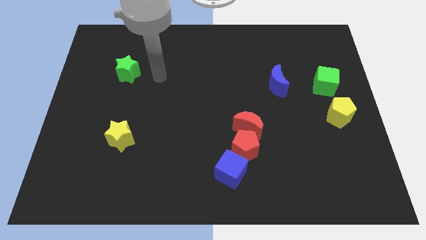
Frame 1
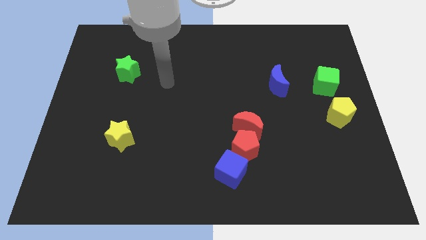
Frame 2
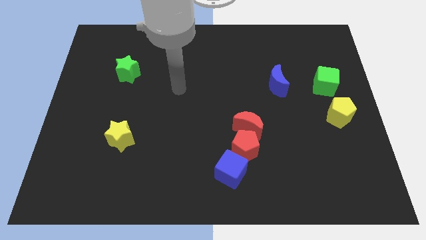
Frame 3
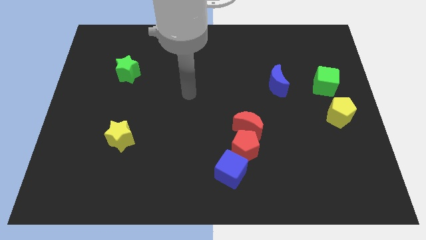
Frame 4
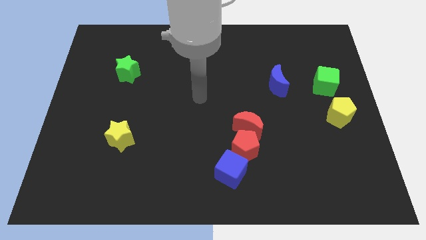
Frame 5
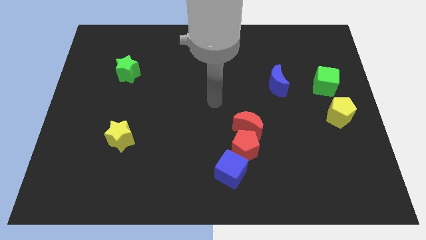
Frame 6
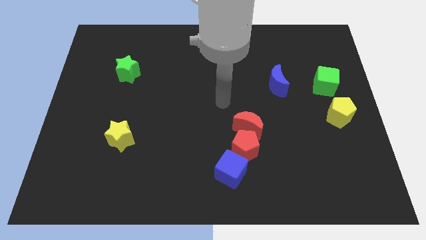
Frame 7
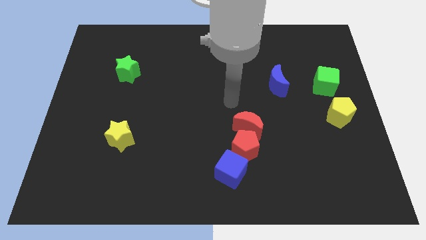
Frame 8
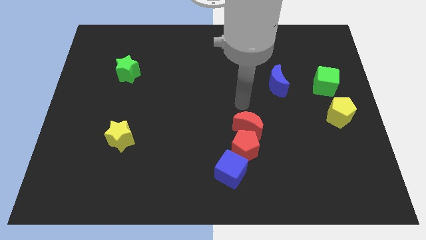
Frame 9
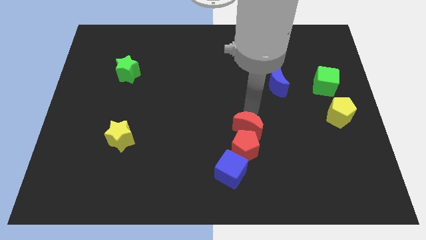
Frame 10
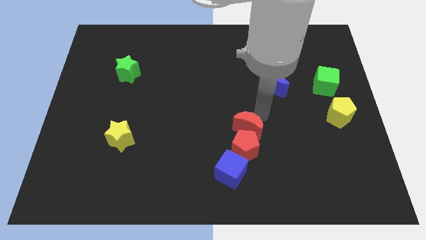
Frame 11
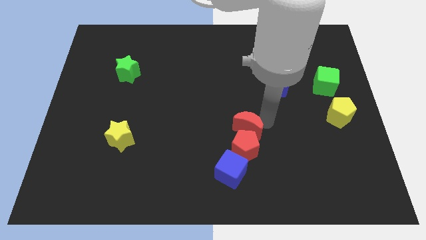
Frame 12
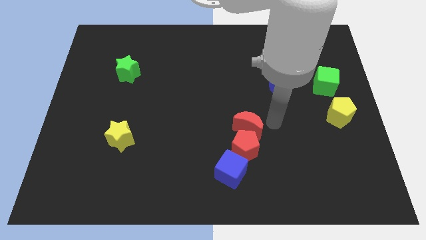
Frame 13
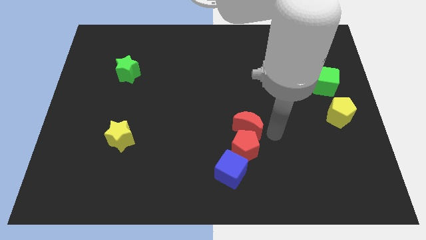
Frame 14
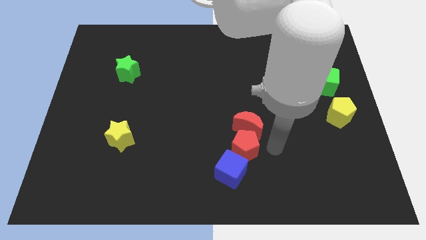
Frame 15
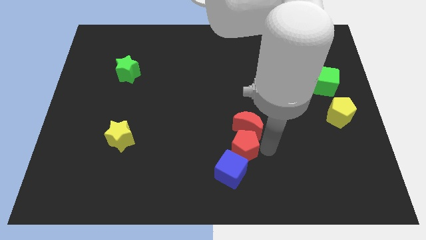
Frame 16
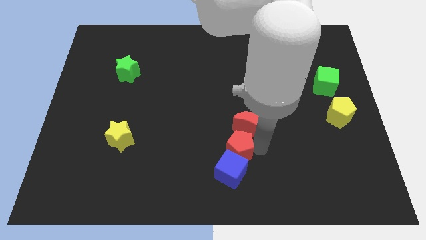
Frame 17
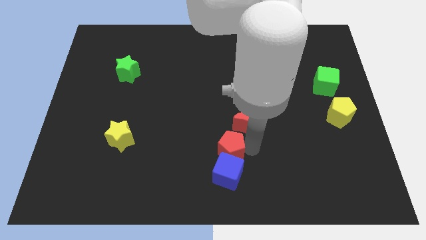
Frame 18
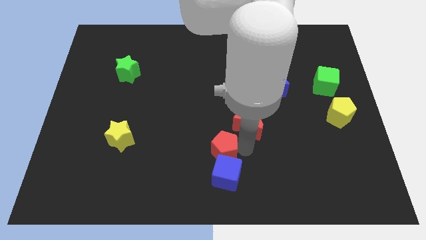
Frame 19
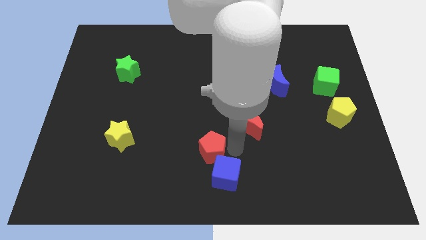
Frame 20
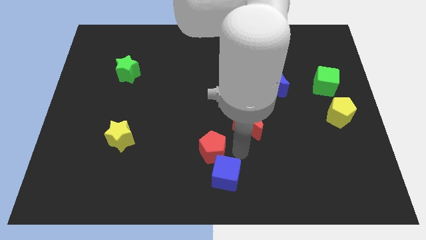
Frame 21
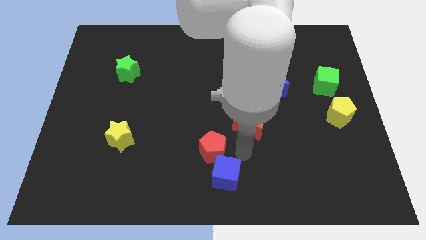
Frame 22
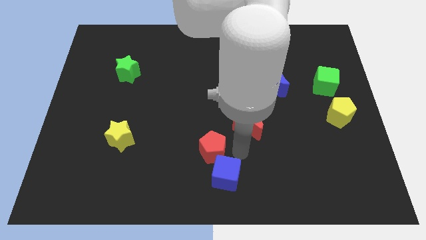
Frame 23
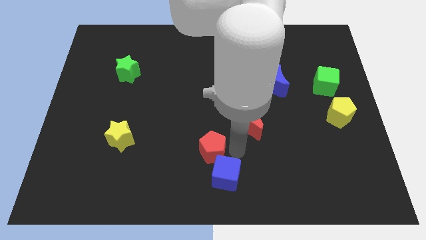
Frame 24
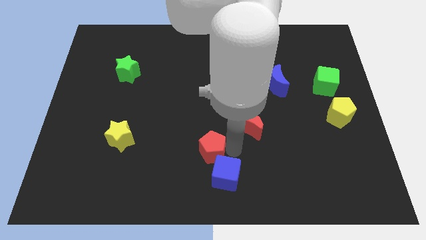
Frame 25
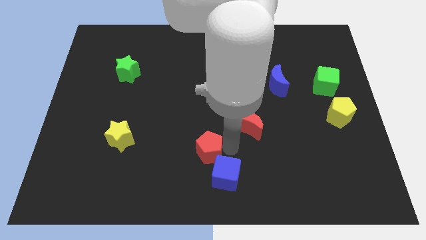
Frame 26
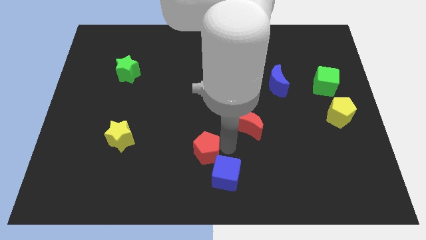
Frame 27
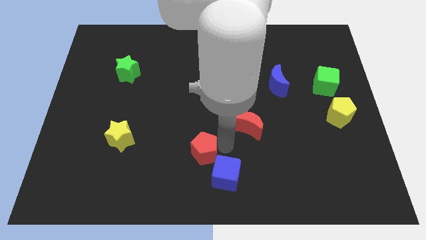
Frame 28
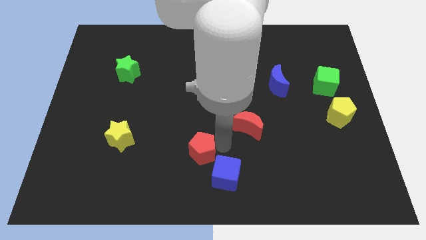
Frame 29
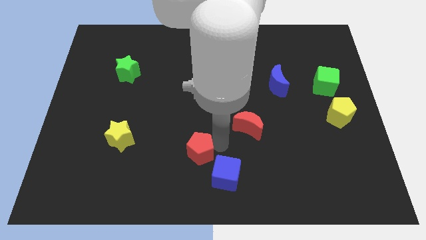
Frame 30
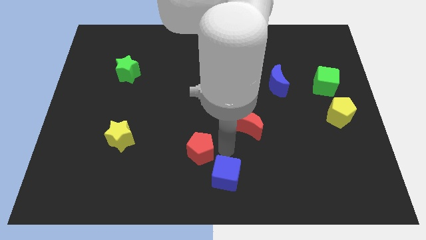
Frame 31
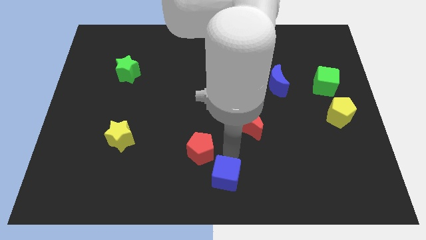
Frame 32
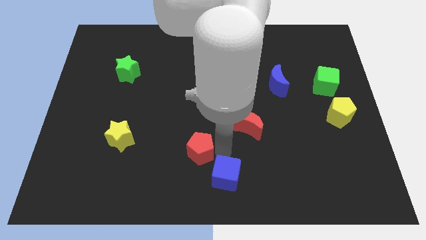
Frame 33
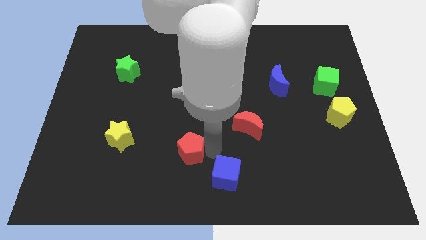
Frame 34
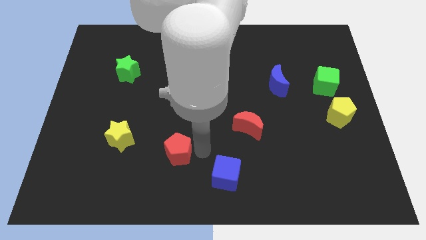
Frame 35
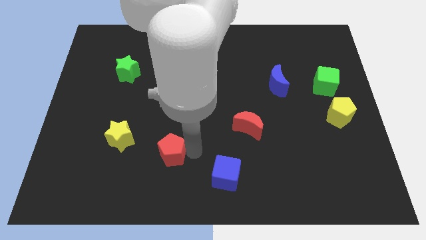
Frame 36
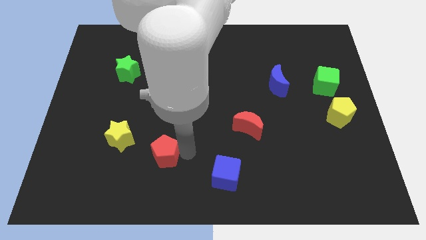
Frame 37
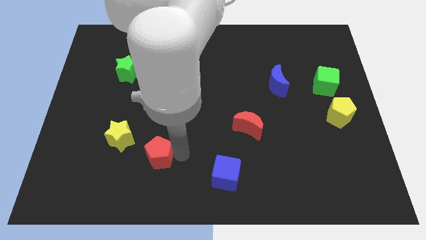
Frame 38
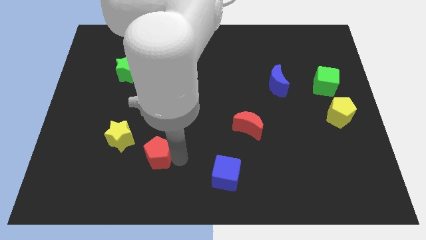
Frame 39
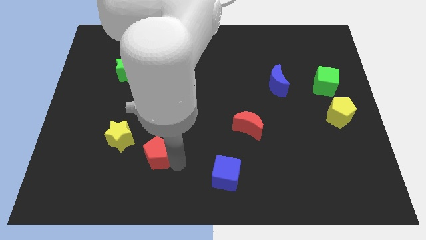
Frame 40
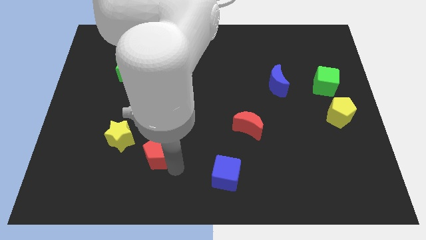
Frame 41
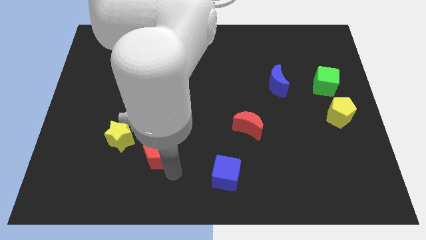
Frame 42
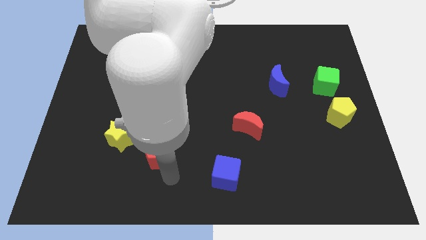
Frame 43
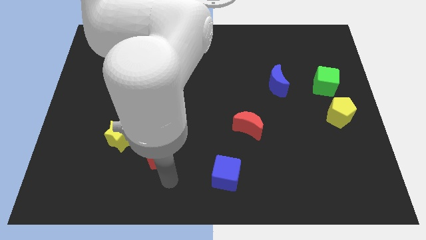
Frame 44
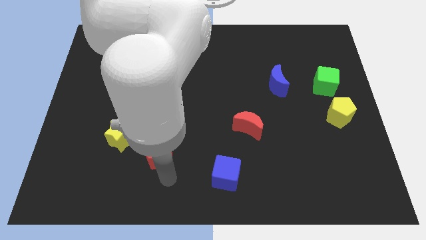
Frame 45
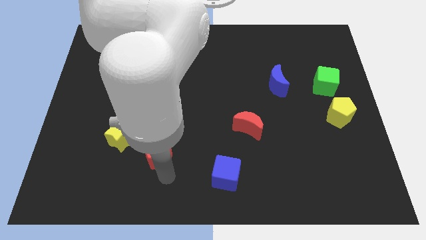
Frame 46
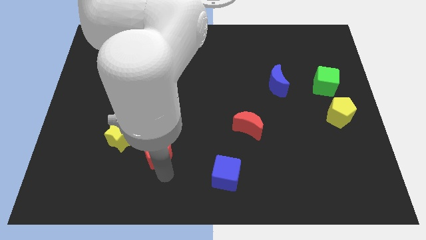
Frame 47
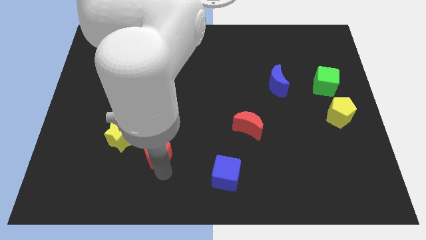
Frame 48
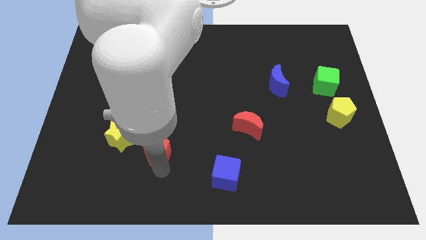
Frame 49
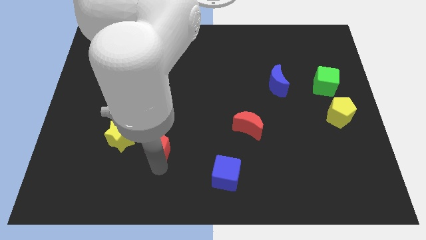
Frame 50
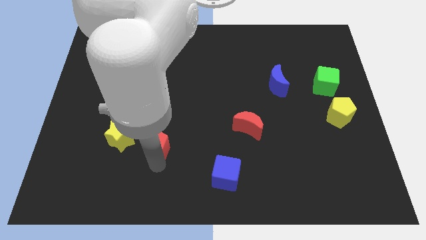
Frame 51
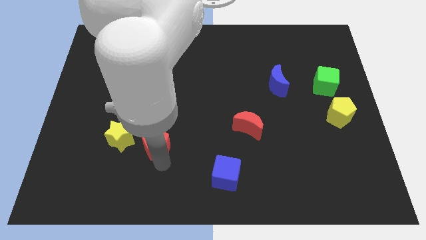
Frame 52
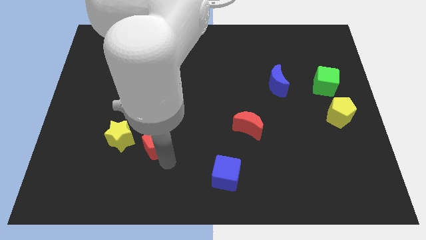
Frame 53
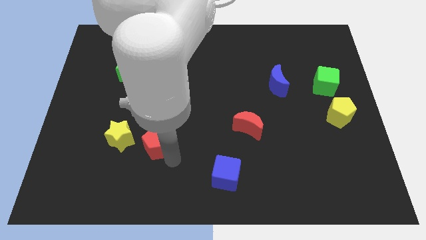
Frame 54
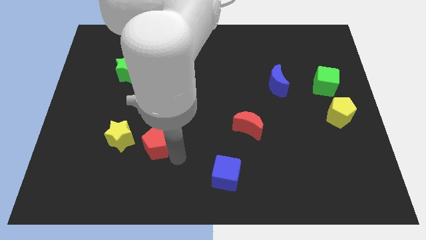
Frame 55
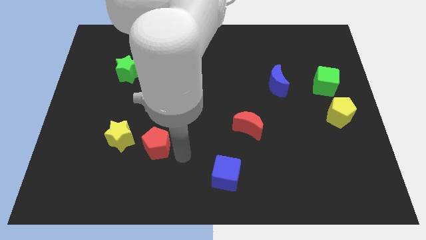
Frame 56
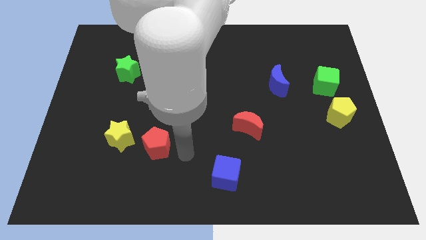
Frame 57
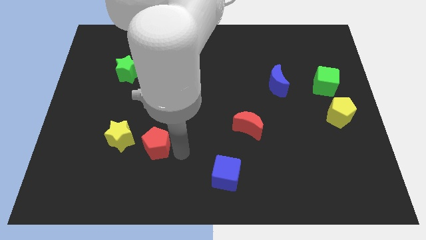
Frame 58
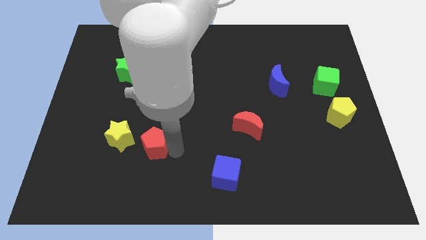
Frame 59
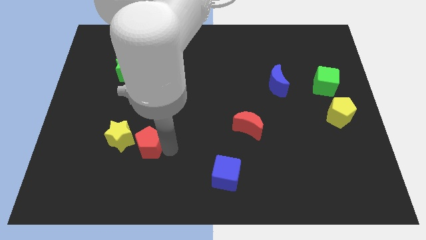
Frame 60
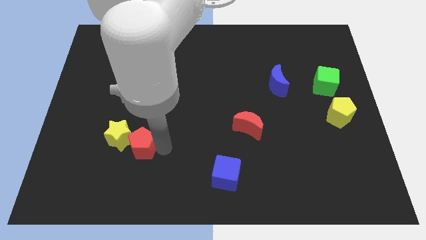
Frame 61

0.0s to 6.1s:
slide the red pentagon towards the yellow star

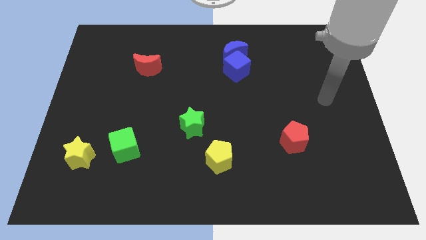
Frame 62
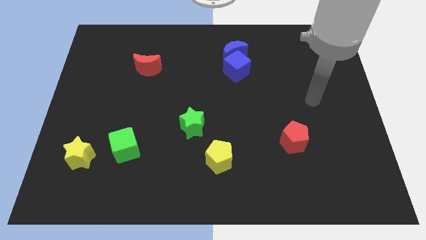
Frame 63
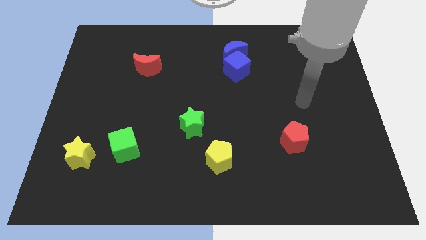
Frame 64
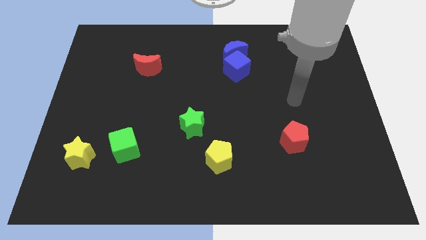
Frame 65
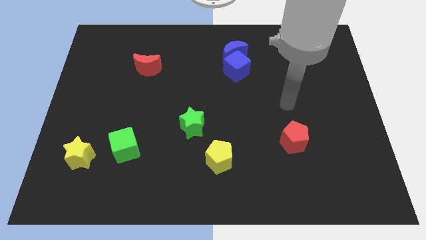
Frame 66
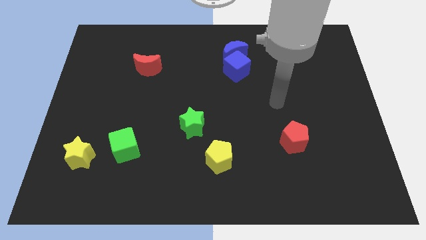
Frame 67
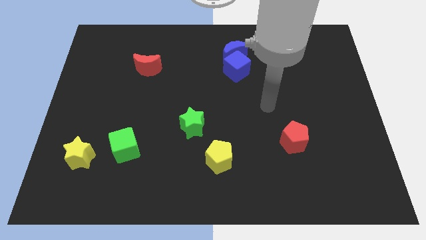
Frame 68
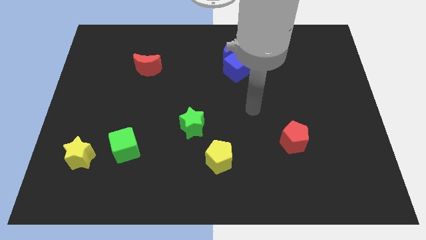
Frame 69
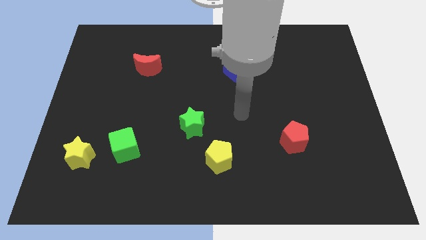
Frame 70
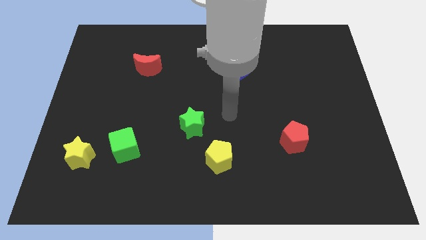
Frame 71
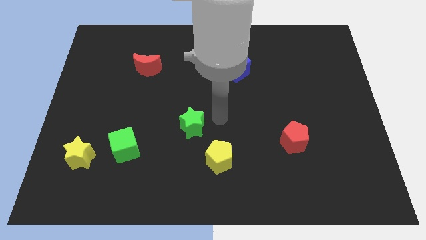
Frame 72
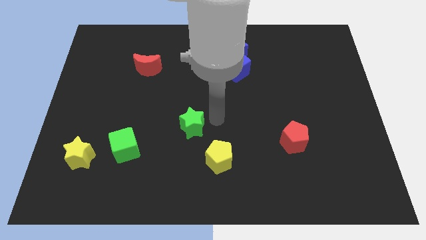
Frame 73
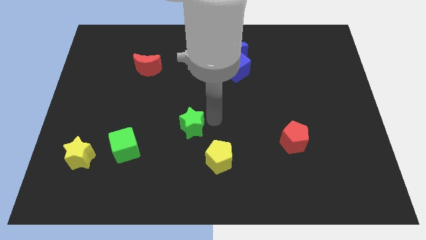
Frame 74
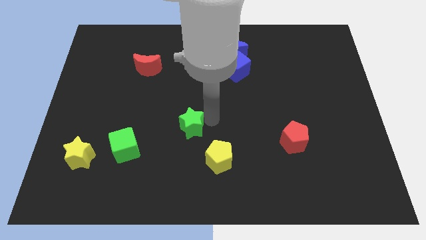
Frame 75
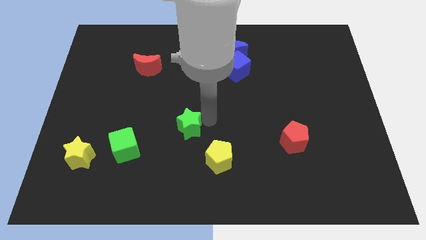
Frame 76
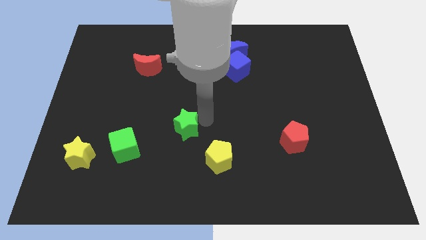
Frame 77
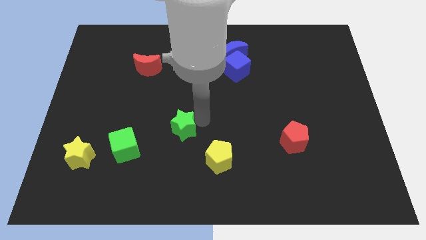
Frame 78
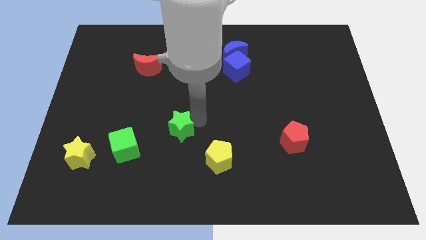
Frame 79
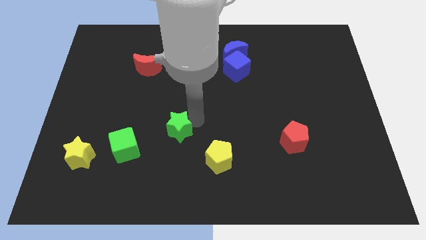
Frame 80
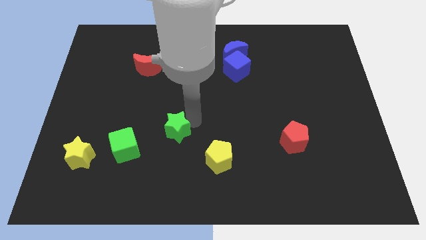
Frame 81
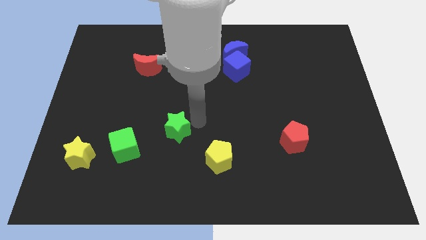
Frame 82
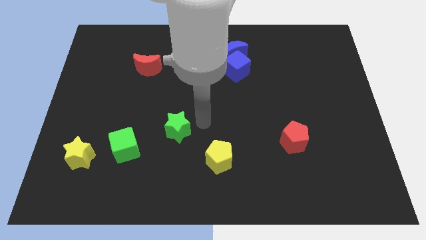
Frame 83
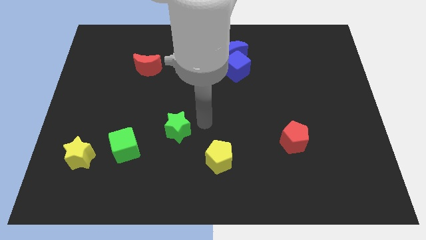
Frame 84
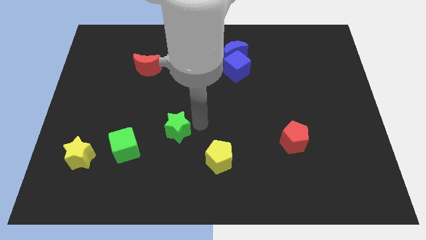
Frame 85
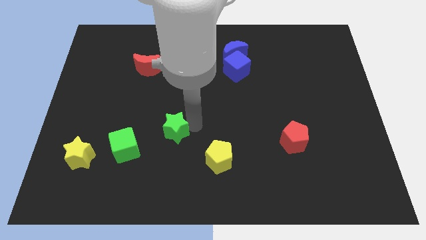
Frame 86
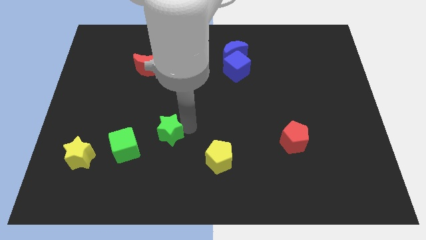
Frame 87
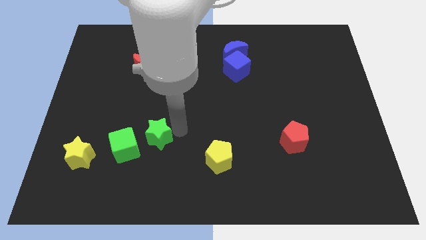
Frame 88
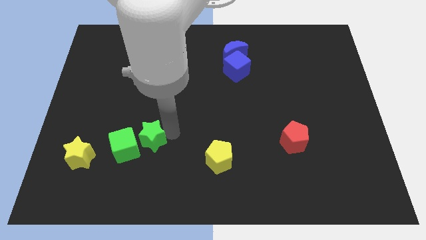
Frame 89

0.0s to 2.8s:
push the green star towards the green cube
